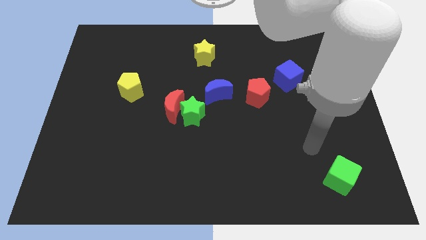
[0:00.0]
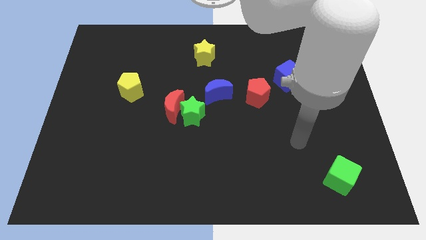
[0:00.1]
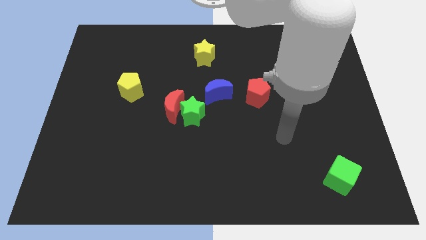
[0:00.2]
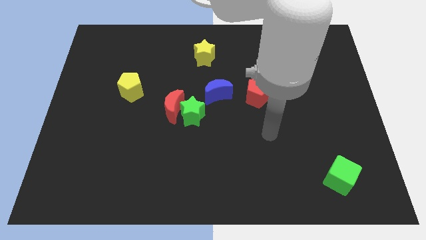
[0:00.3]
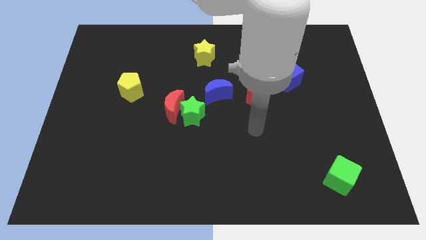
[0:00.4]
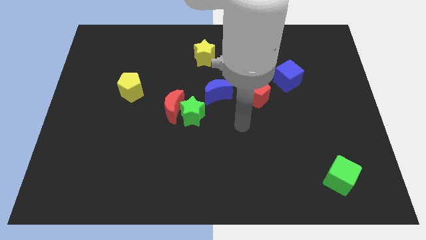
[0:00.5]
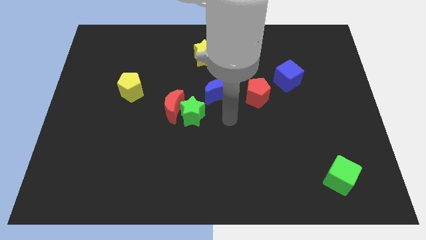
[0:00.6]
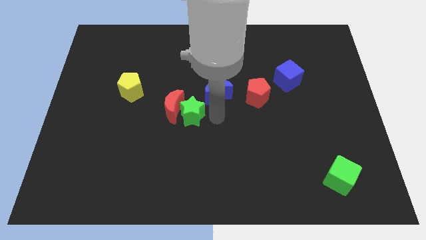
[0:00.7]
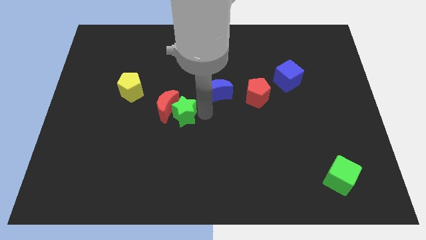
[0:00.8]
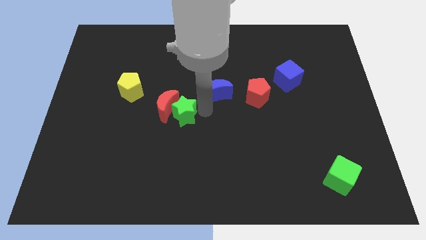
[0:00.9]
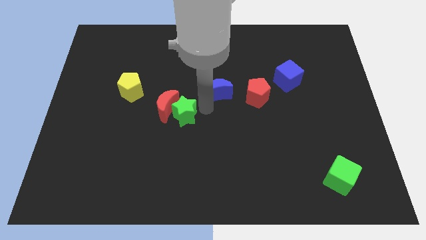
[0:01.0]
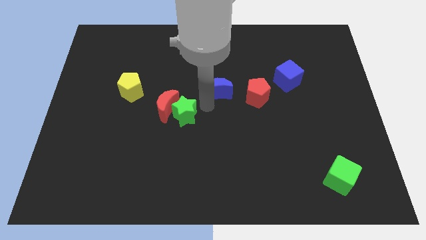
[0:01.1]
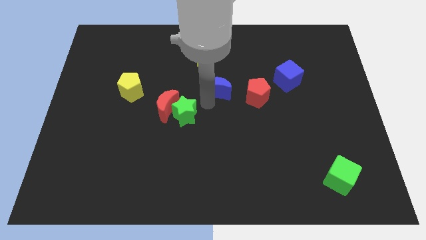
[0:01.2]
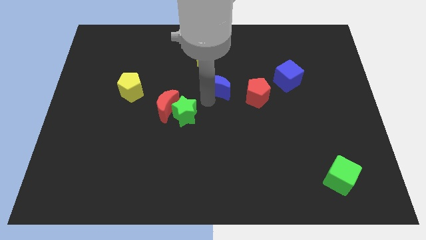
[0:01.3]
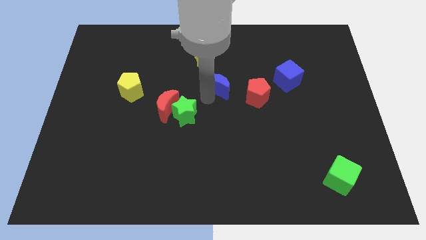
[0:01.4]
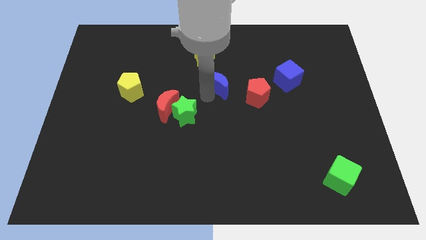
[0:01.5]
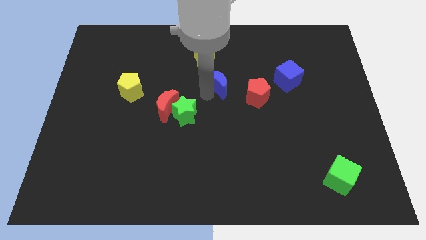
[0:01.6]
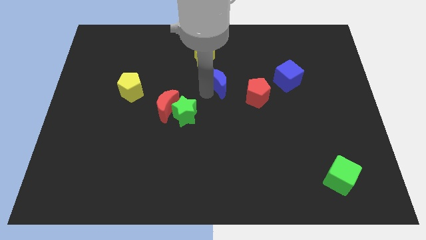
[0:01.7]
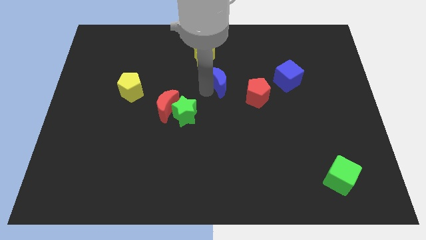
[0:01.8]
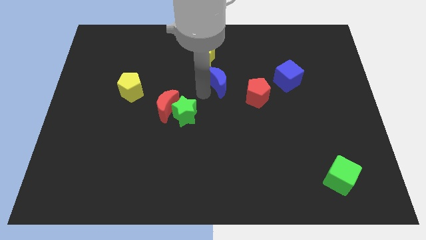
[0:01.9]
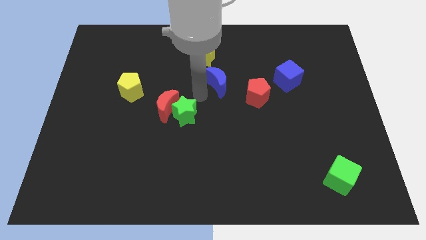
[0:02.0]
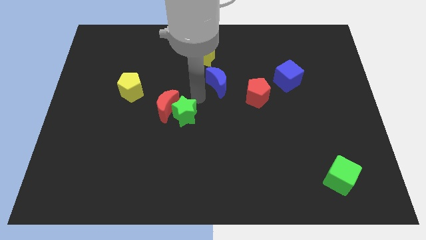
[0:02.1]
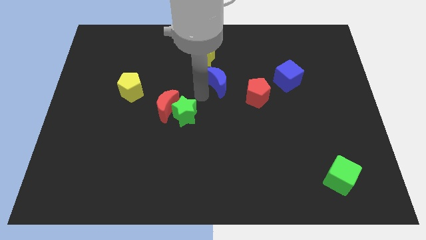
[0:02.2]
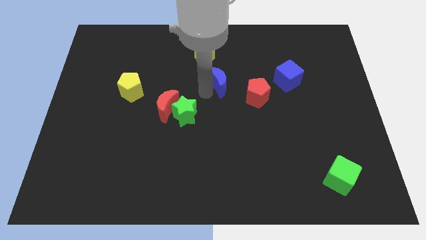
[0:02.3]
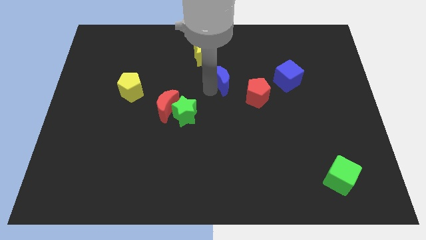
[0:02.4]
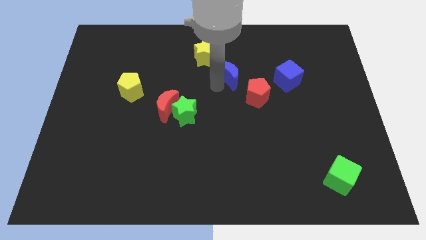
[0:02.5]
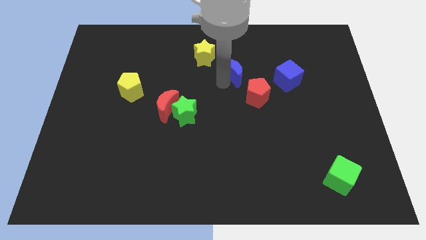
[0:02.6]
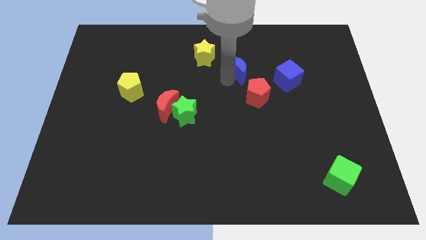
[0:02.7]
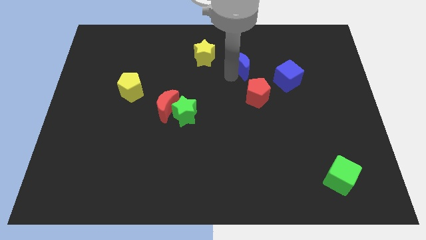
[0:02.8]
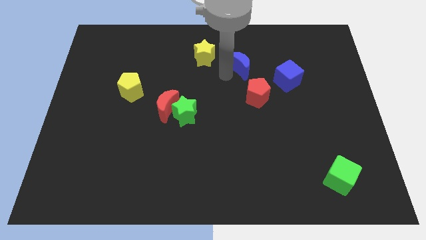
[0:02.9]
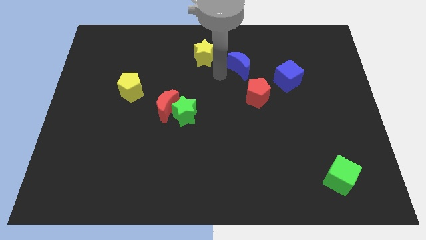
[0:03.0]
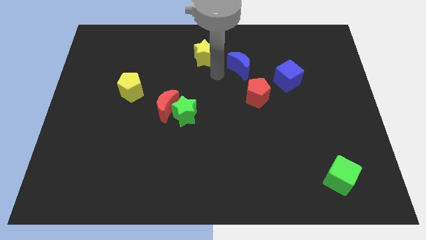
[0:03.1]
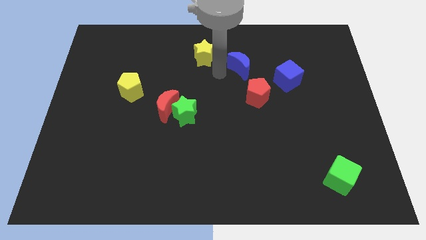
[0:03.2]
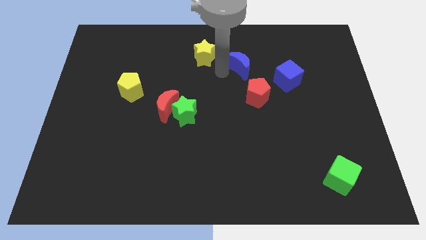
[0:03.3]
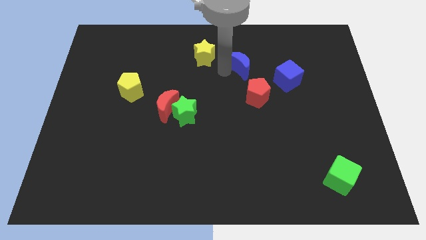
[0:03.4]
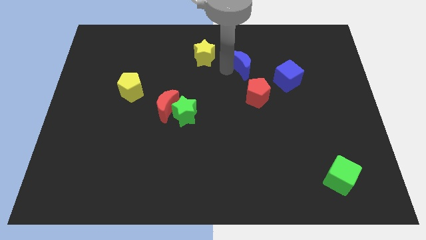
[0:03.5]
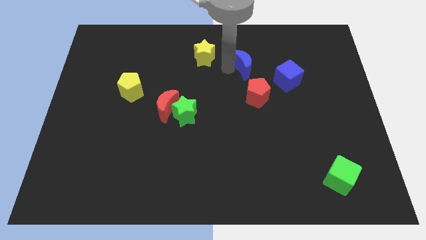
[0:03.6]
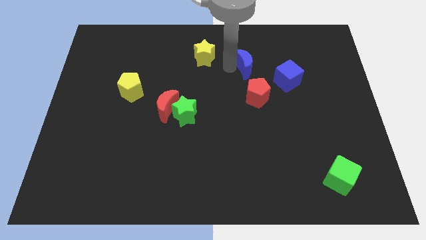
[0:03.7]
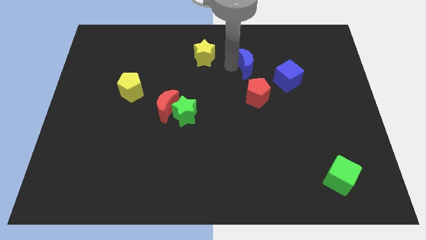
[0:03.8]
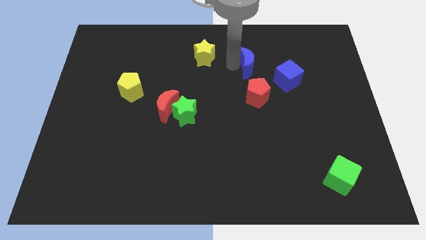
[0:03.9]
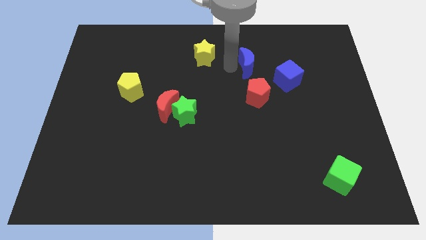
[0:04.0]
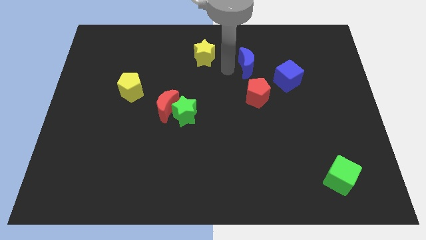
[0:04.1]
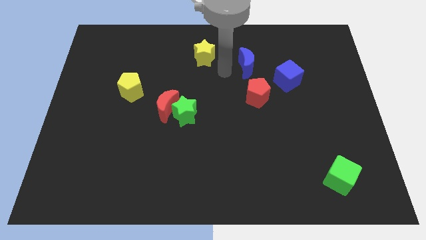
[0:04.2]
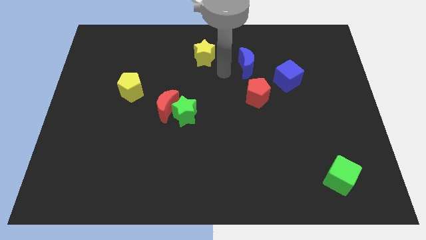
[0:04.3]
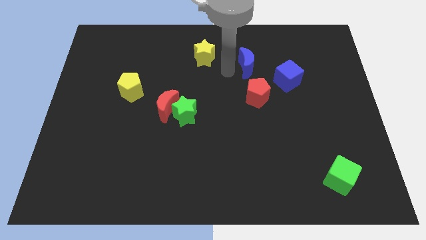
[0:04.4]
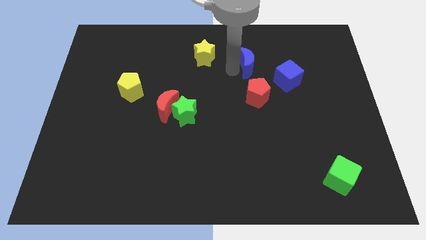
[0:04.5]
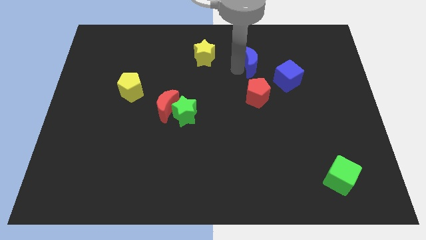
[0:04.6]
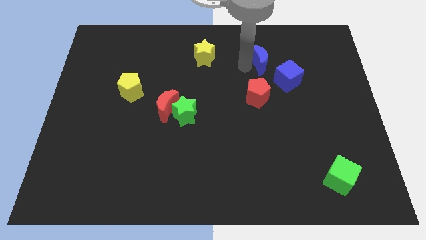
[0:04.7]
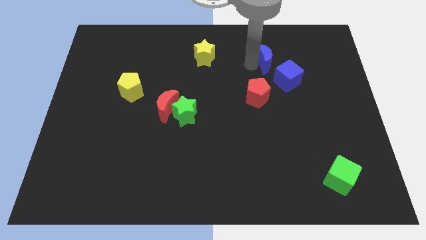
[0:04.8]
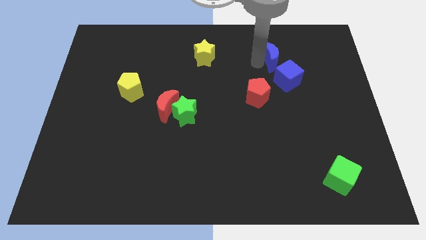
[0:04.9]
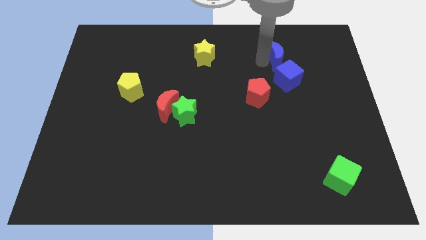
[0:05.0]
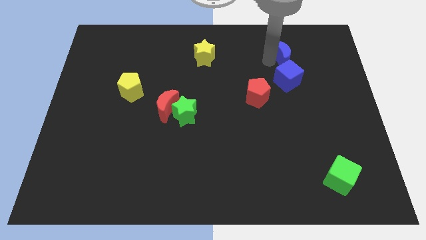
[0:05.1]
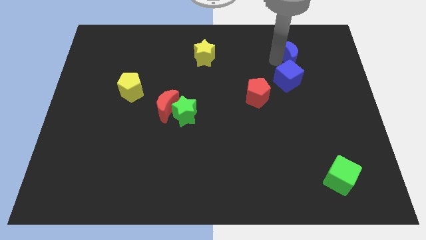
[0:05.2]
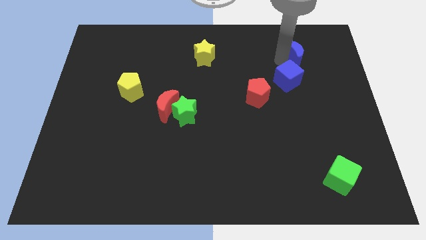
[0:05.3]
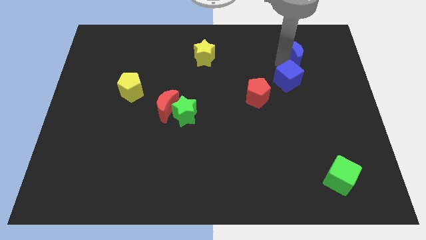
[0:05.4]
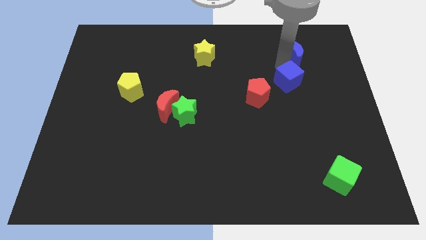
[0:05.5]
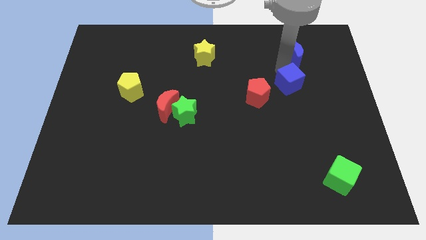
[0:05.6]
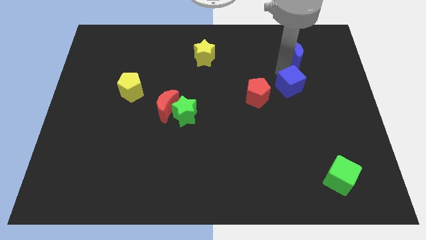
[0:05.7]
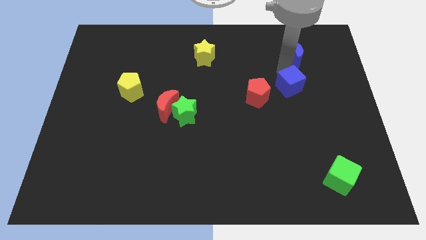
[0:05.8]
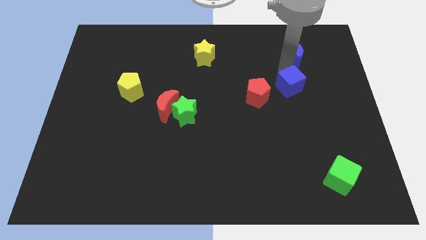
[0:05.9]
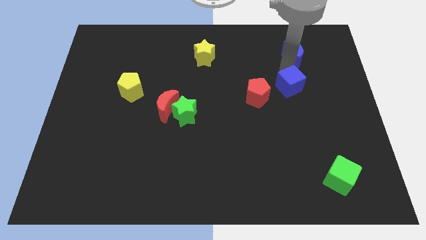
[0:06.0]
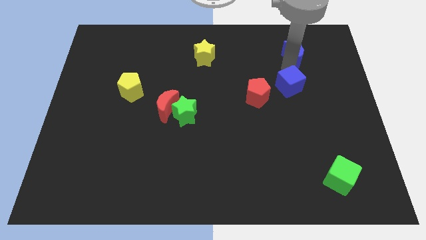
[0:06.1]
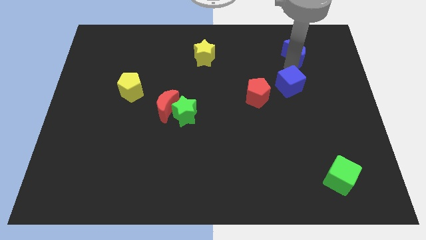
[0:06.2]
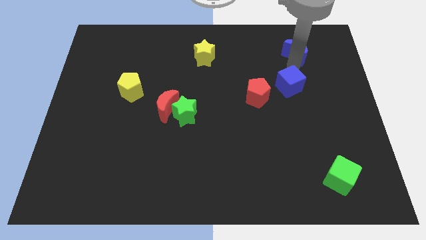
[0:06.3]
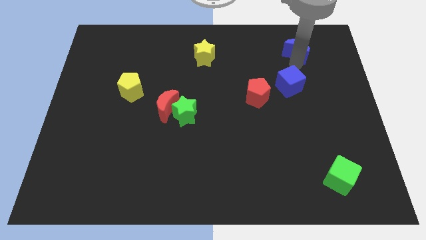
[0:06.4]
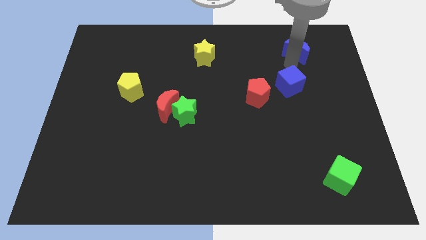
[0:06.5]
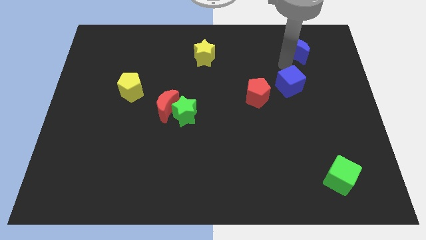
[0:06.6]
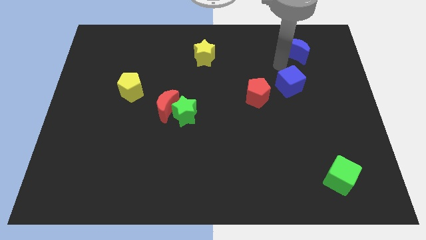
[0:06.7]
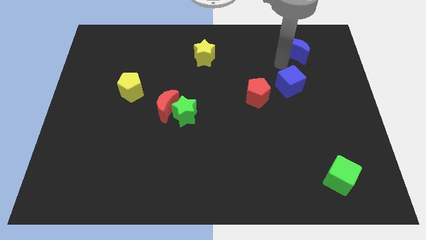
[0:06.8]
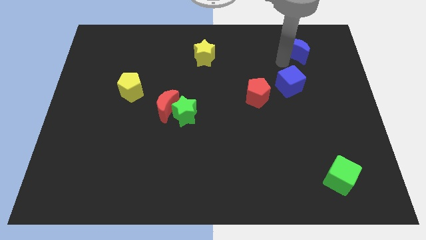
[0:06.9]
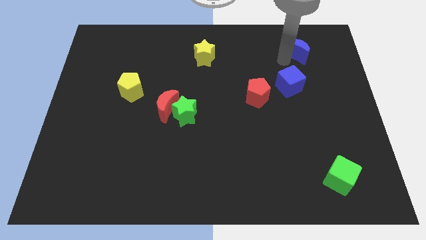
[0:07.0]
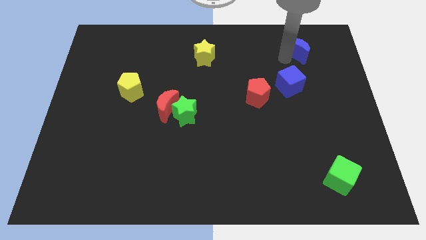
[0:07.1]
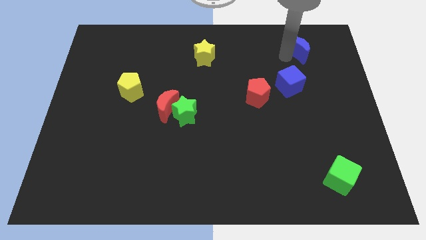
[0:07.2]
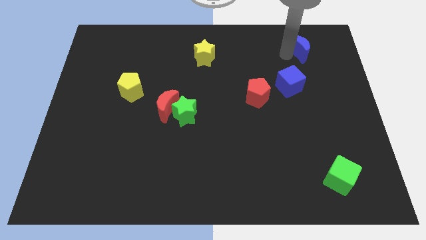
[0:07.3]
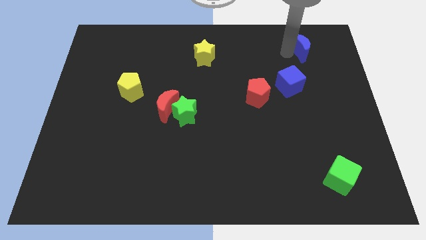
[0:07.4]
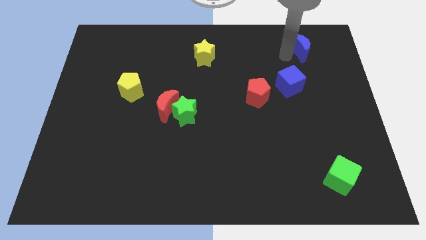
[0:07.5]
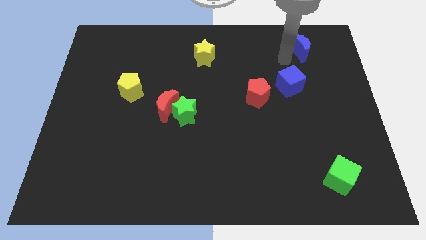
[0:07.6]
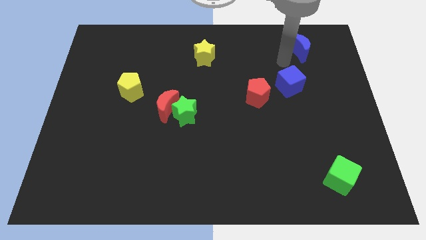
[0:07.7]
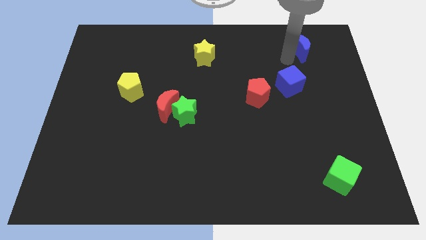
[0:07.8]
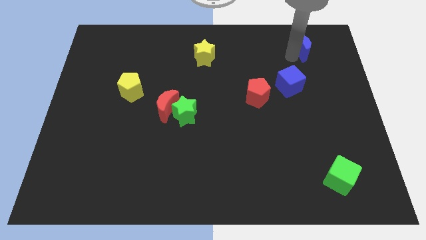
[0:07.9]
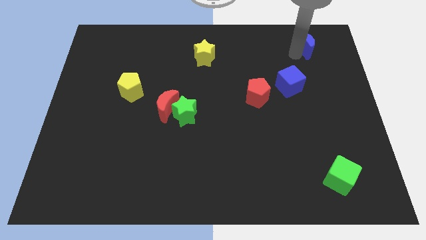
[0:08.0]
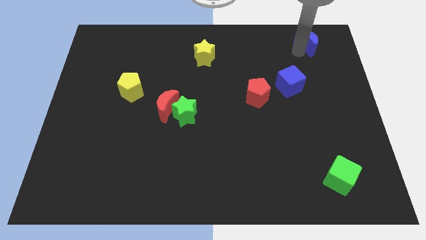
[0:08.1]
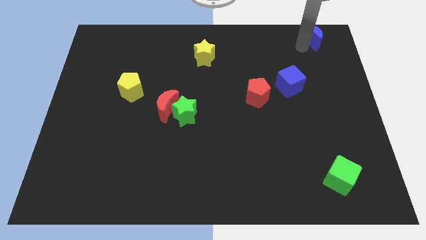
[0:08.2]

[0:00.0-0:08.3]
put the blue moon to the top right of the board
